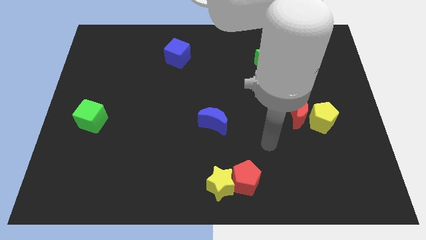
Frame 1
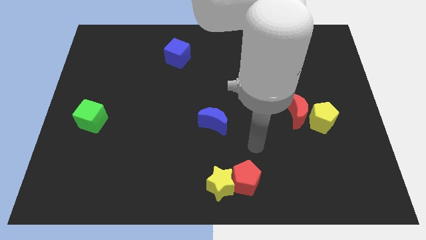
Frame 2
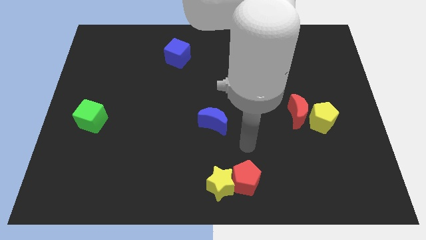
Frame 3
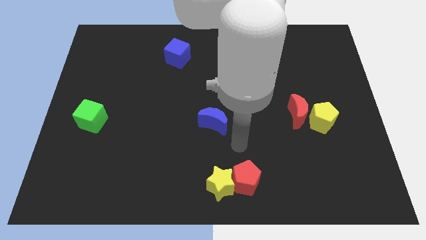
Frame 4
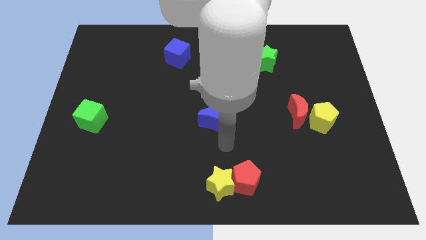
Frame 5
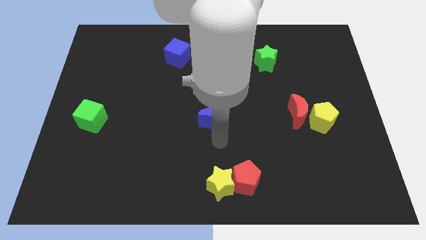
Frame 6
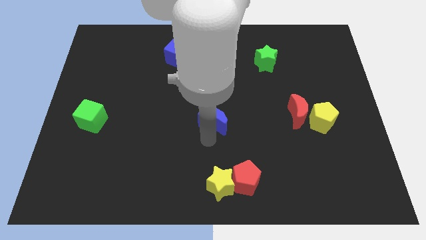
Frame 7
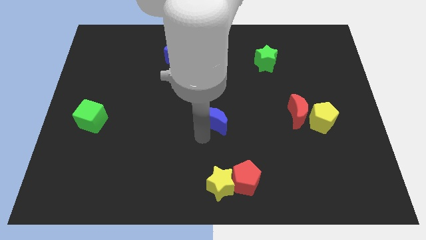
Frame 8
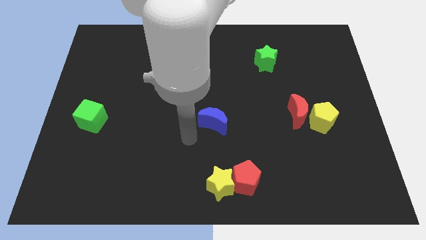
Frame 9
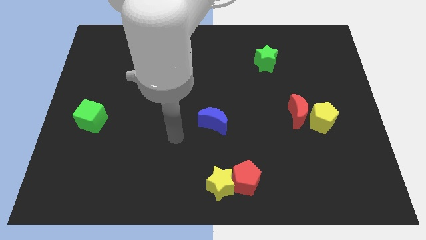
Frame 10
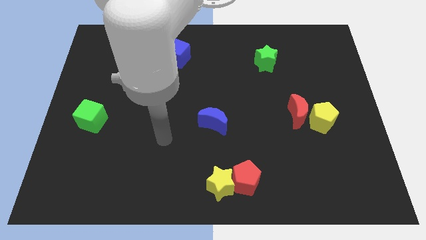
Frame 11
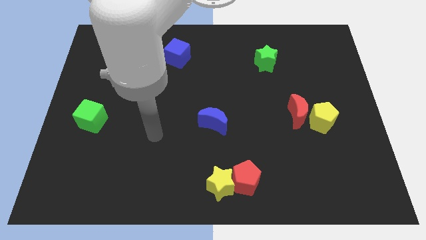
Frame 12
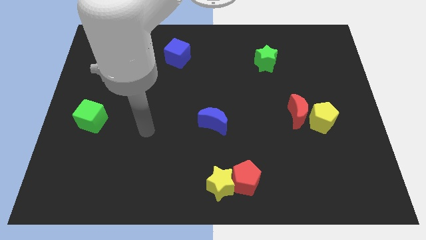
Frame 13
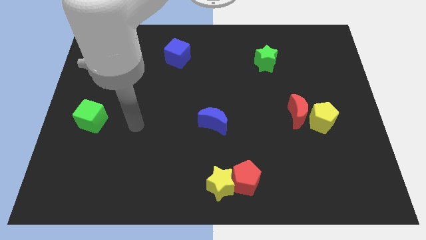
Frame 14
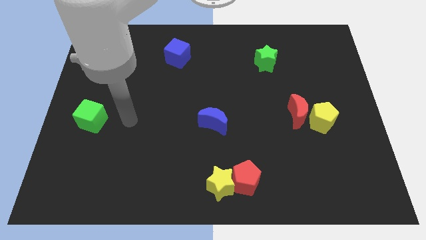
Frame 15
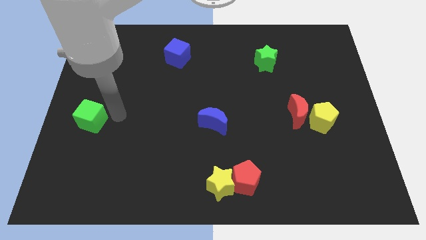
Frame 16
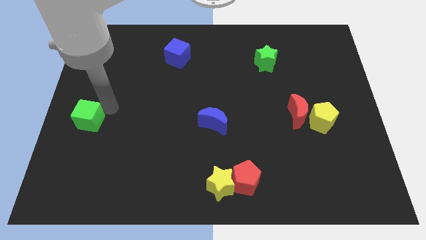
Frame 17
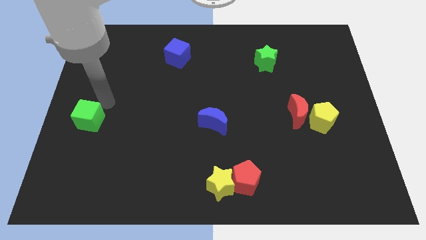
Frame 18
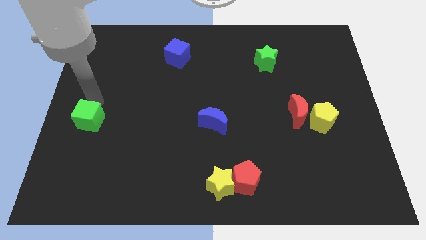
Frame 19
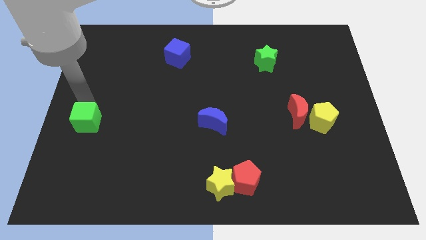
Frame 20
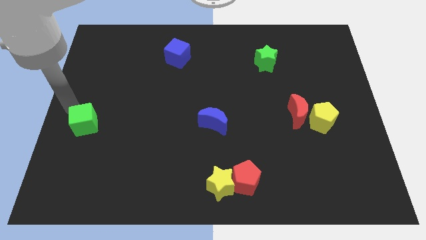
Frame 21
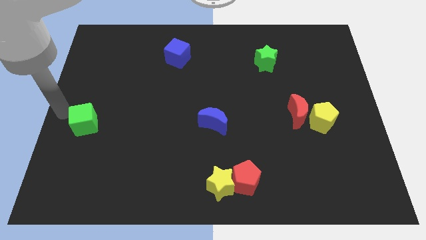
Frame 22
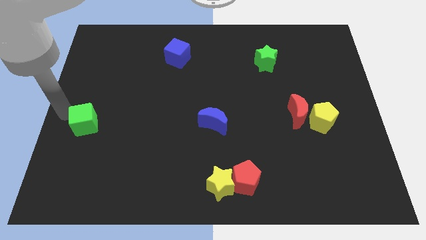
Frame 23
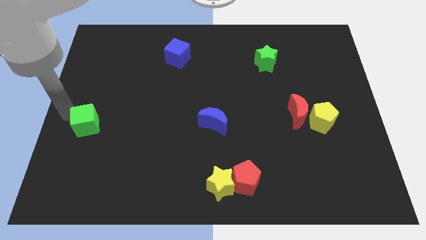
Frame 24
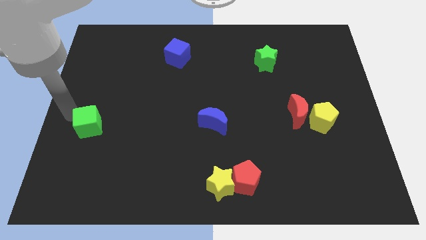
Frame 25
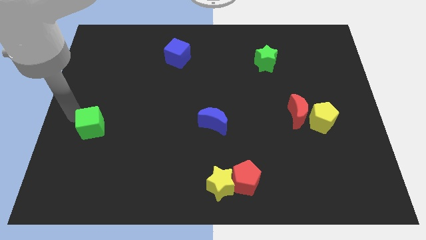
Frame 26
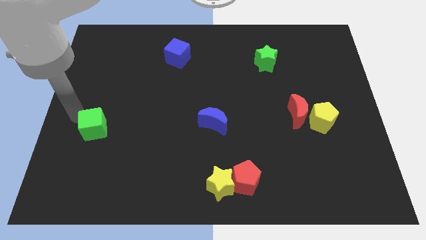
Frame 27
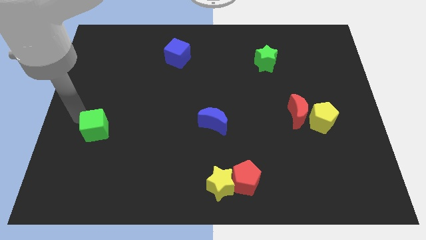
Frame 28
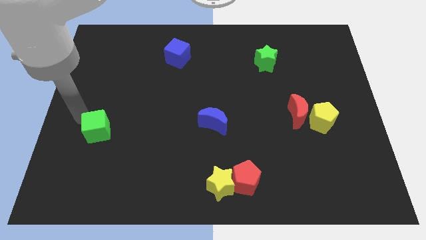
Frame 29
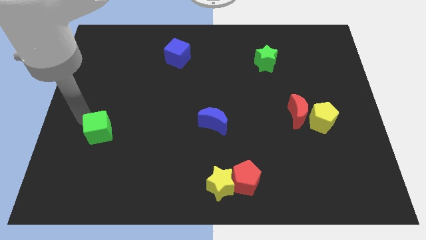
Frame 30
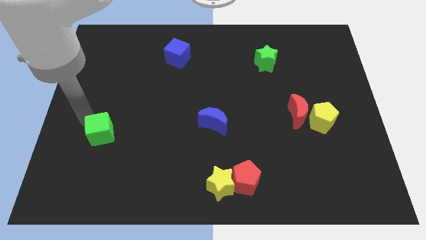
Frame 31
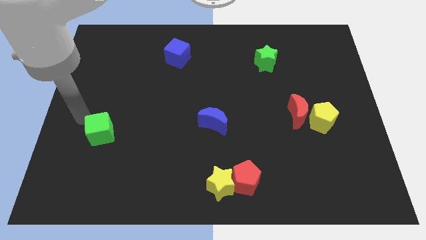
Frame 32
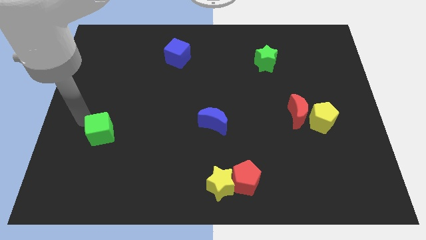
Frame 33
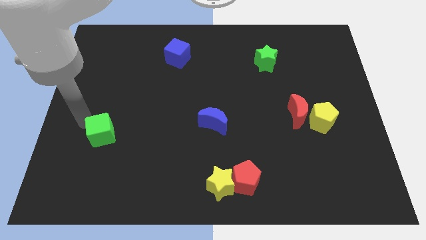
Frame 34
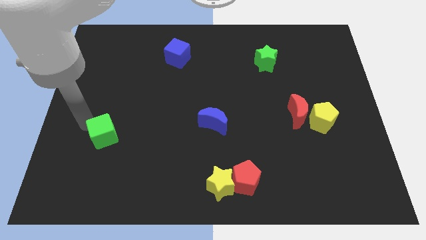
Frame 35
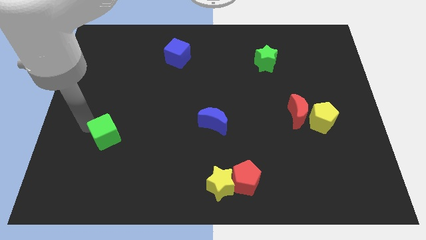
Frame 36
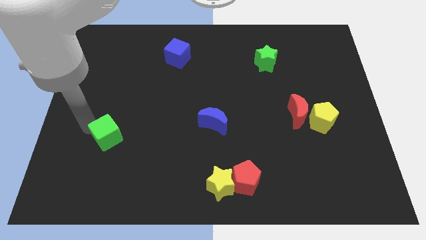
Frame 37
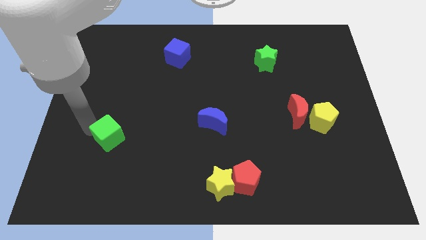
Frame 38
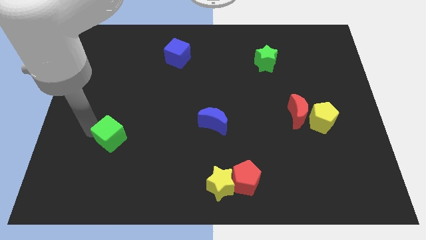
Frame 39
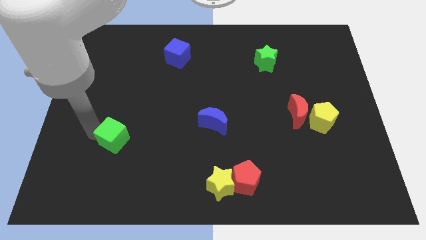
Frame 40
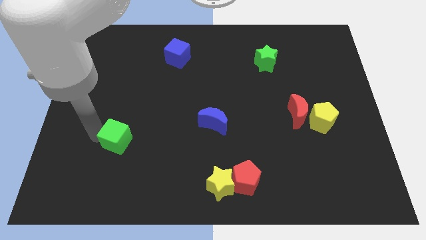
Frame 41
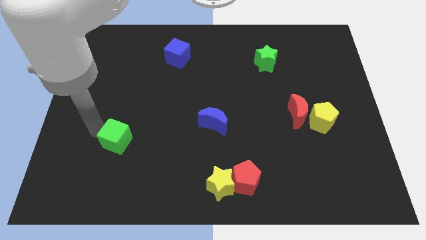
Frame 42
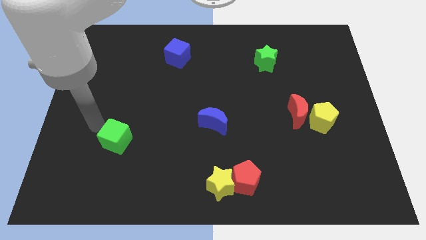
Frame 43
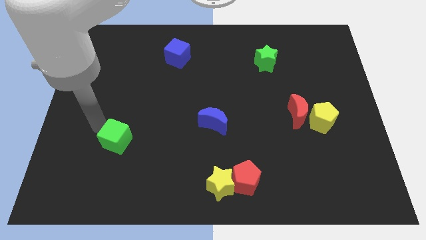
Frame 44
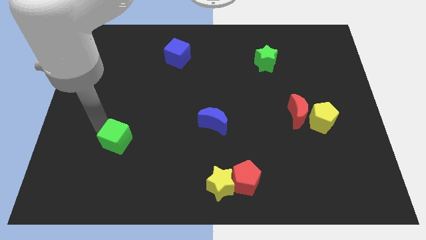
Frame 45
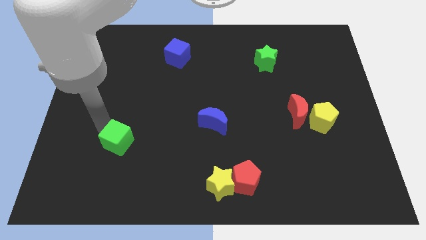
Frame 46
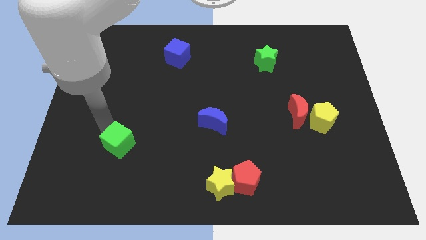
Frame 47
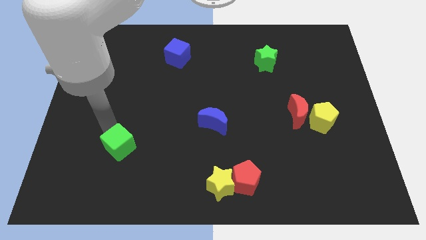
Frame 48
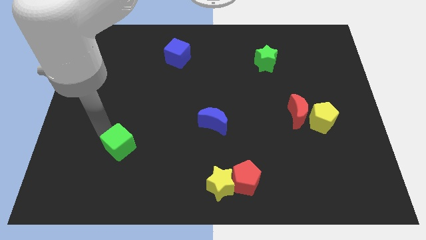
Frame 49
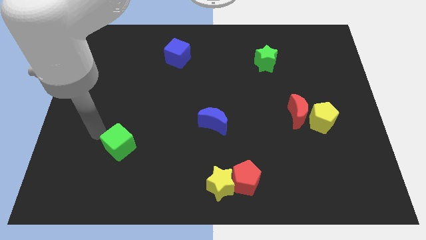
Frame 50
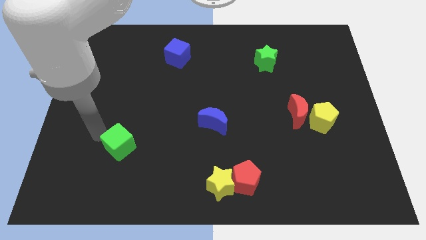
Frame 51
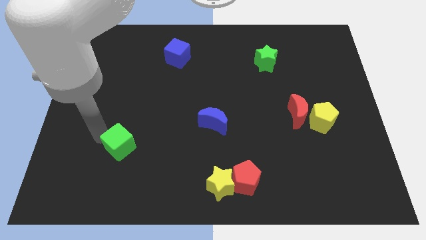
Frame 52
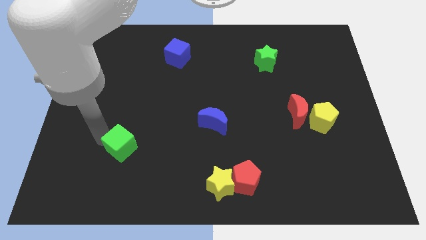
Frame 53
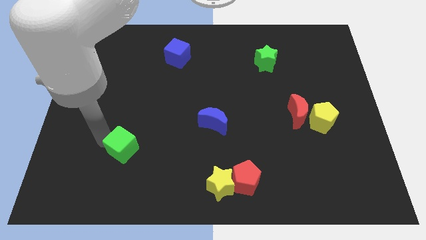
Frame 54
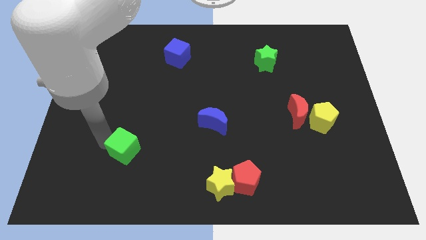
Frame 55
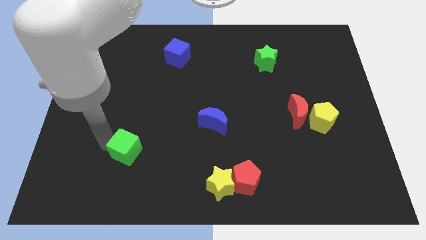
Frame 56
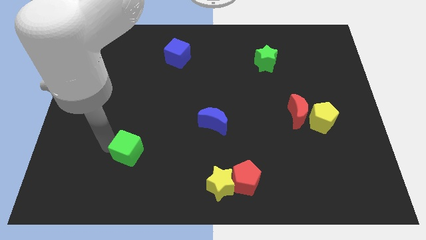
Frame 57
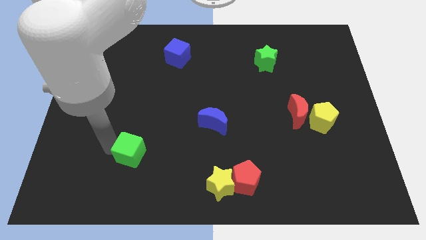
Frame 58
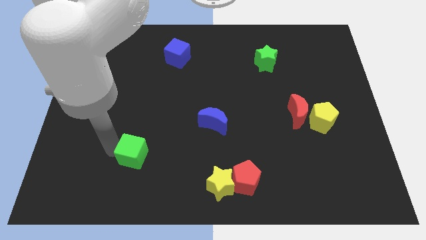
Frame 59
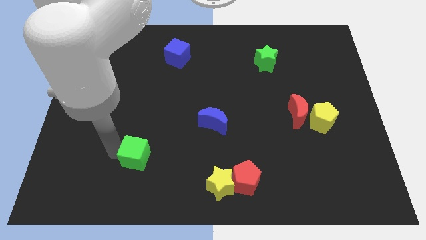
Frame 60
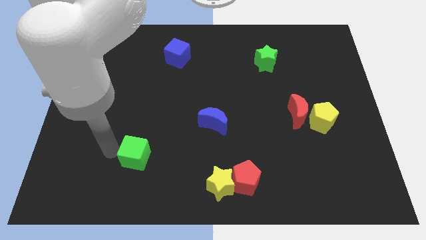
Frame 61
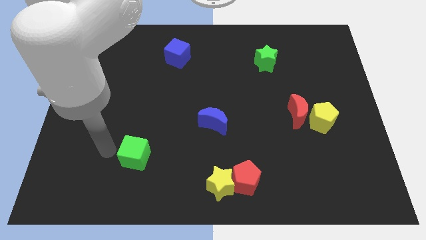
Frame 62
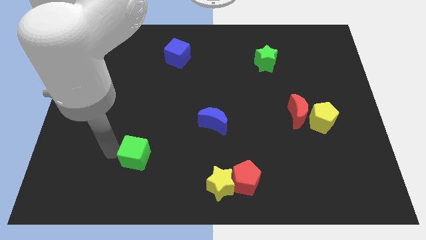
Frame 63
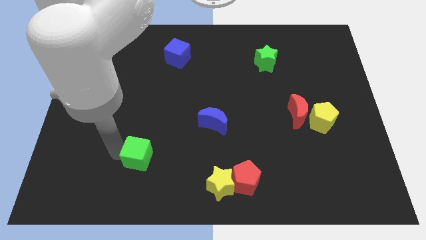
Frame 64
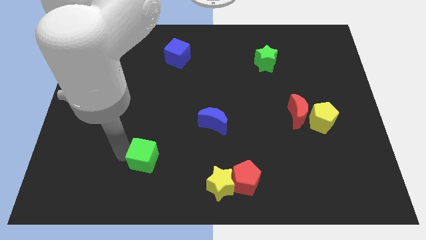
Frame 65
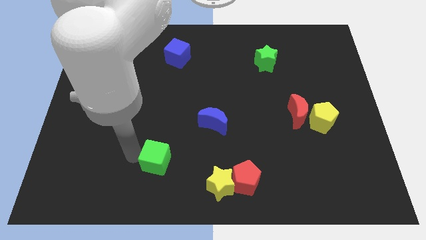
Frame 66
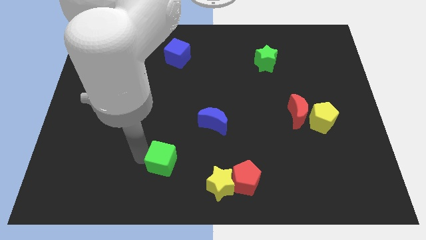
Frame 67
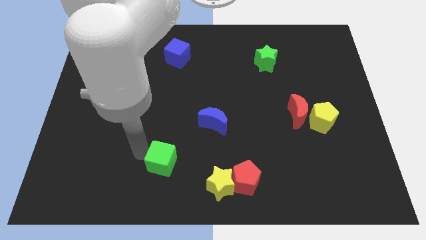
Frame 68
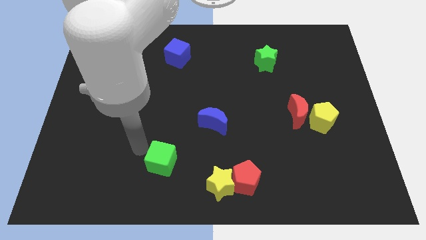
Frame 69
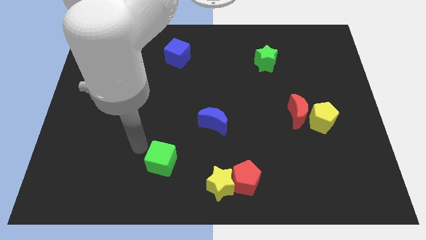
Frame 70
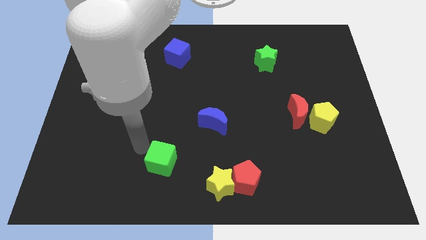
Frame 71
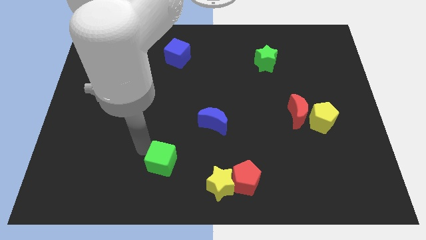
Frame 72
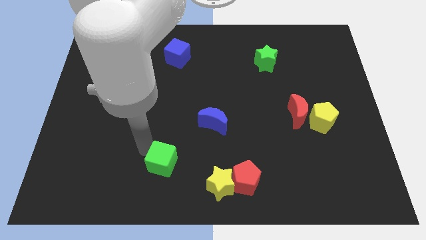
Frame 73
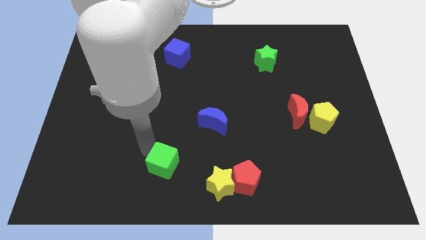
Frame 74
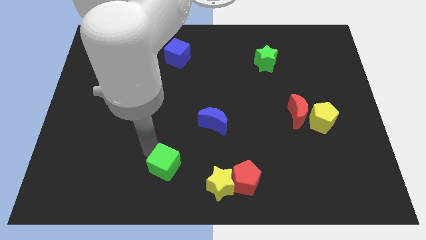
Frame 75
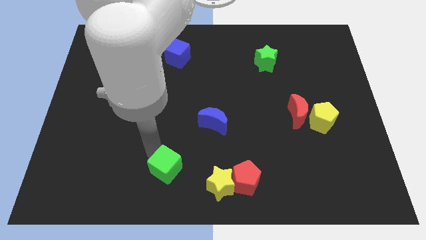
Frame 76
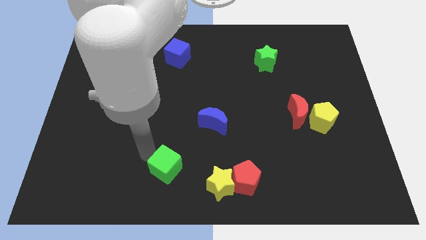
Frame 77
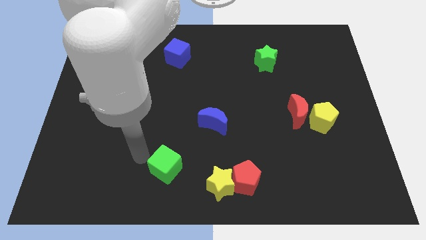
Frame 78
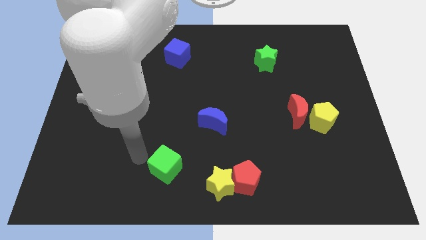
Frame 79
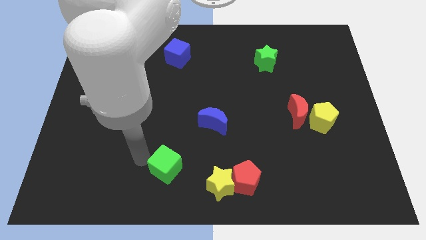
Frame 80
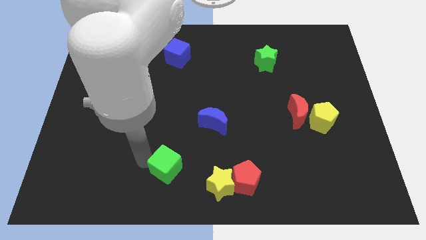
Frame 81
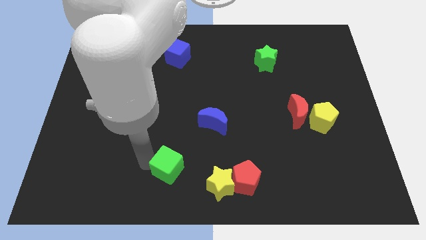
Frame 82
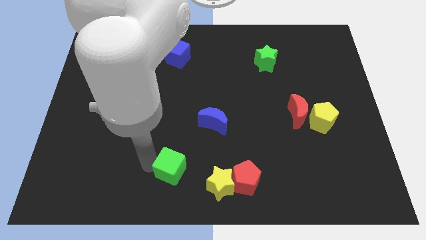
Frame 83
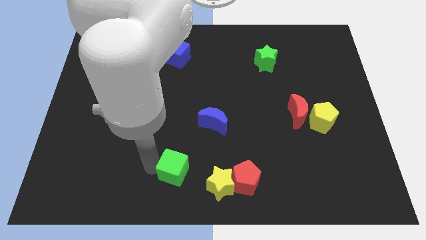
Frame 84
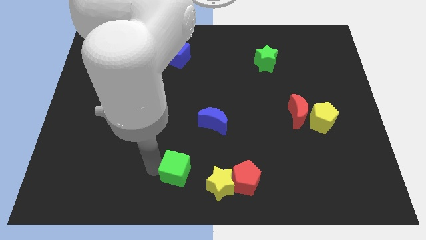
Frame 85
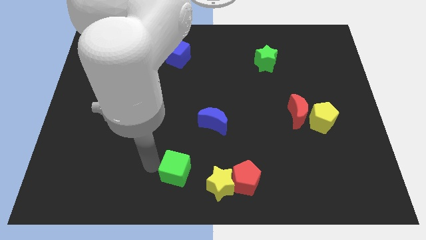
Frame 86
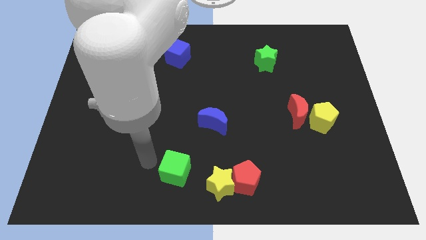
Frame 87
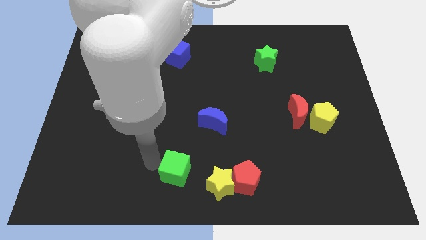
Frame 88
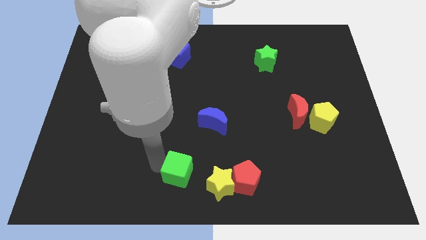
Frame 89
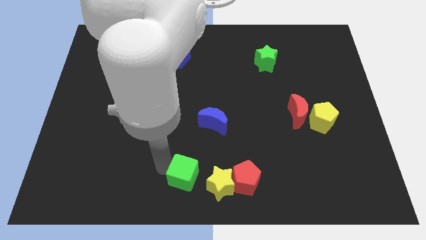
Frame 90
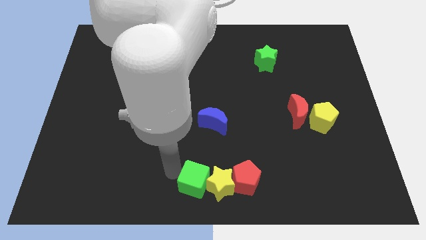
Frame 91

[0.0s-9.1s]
put the green cube towards the yellow star
